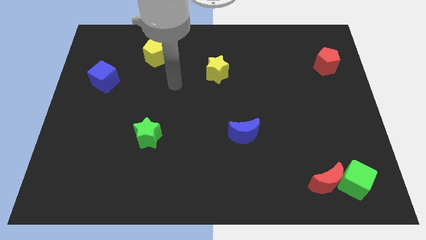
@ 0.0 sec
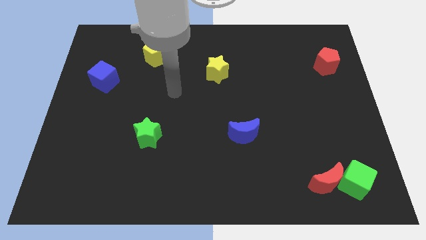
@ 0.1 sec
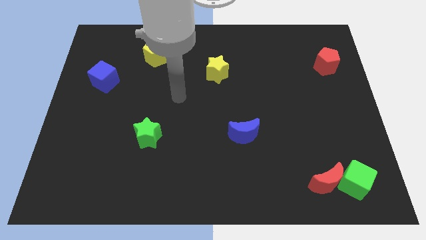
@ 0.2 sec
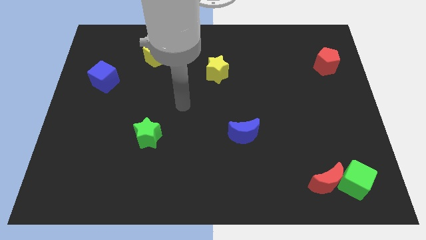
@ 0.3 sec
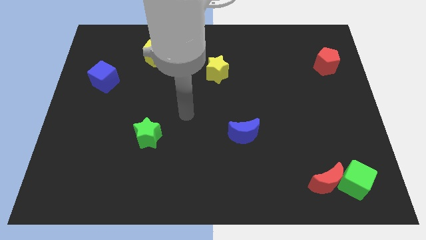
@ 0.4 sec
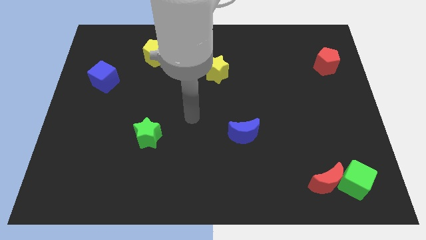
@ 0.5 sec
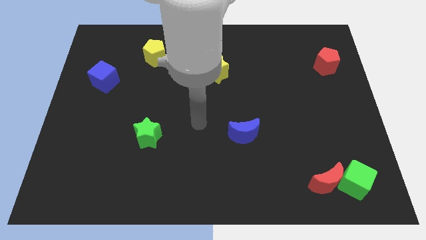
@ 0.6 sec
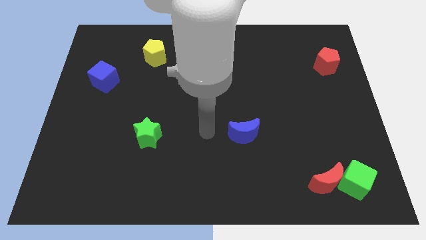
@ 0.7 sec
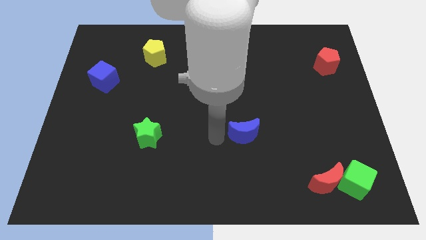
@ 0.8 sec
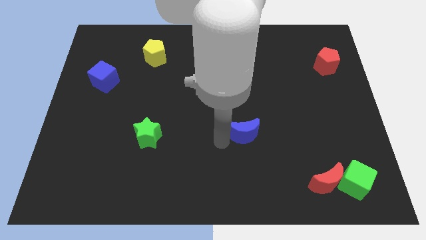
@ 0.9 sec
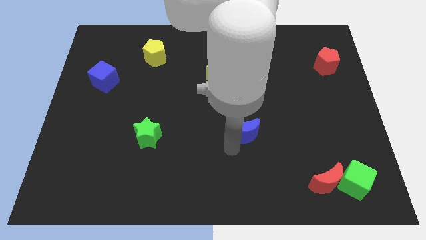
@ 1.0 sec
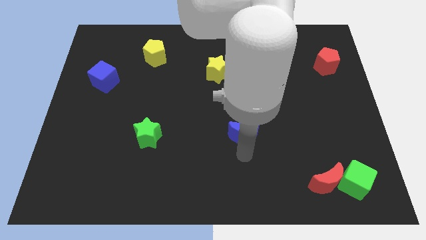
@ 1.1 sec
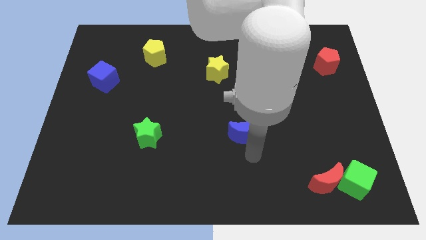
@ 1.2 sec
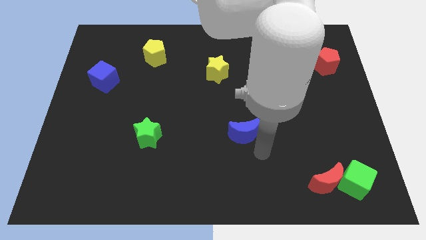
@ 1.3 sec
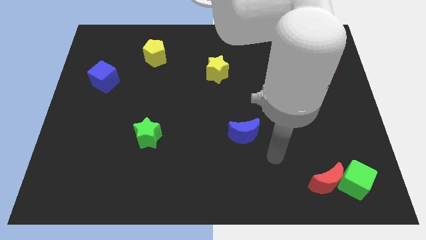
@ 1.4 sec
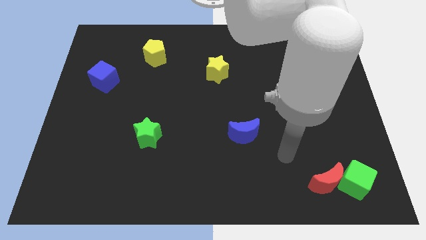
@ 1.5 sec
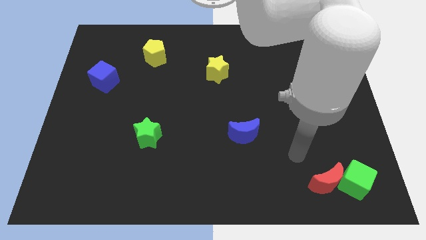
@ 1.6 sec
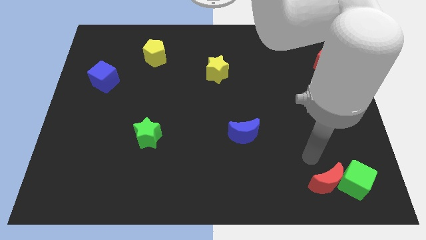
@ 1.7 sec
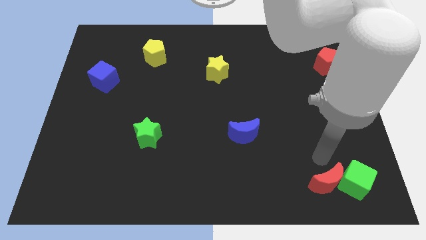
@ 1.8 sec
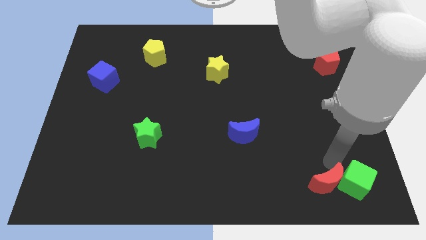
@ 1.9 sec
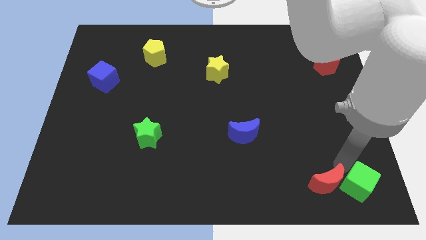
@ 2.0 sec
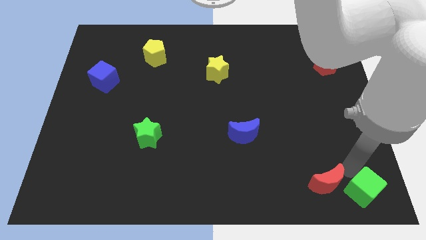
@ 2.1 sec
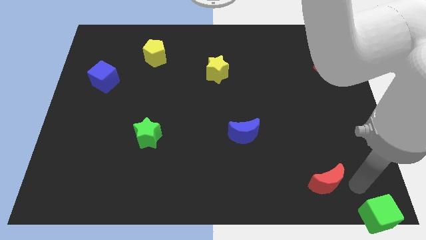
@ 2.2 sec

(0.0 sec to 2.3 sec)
separate the red moon from the green cube

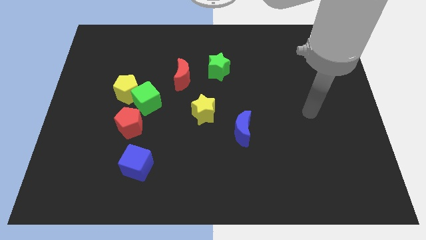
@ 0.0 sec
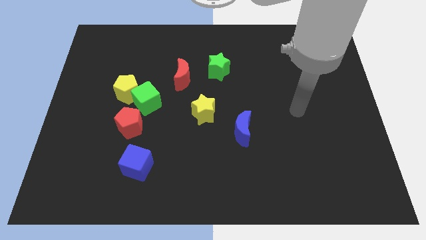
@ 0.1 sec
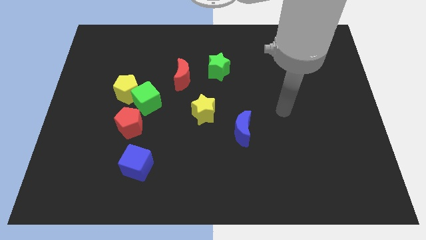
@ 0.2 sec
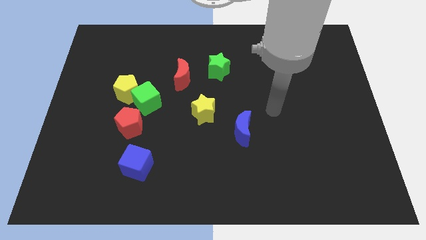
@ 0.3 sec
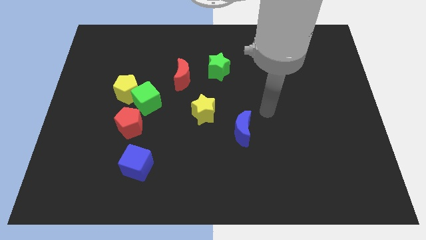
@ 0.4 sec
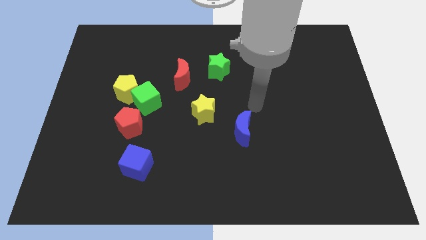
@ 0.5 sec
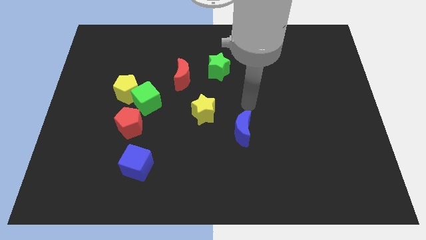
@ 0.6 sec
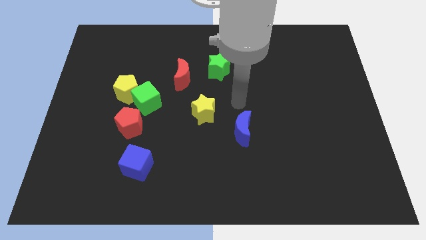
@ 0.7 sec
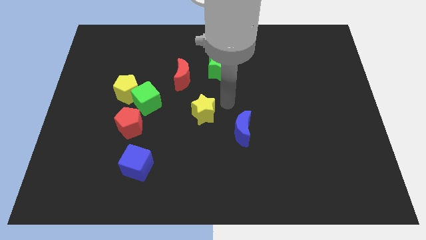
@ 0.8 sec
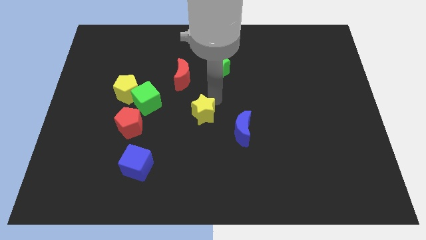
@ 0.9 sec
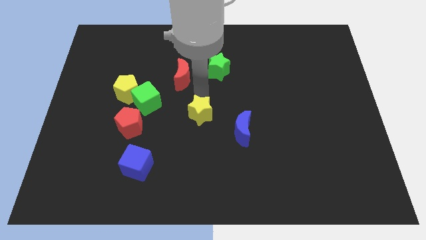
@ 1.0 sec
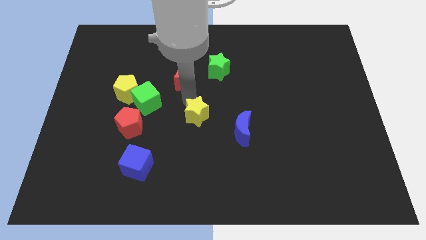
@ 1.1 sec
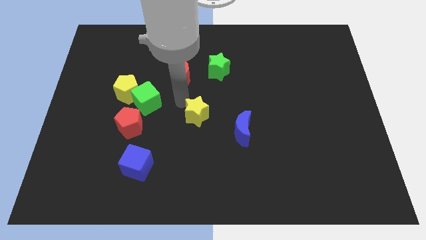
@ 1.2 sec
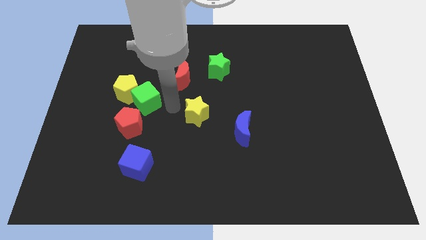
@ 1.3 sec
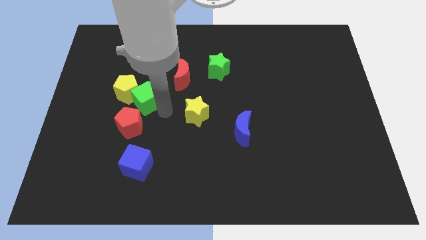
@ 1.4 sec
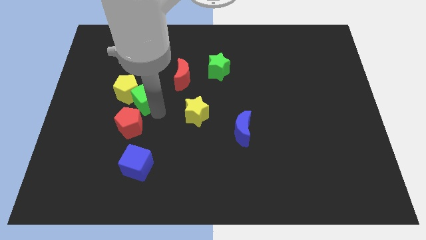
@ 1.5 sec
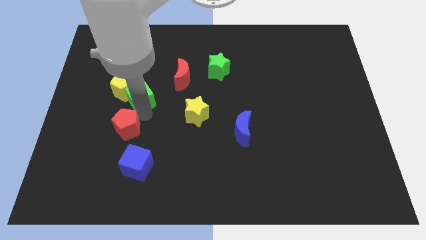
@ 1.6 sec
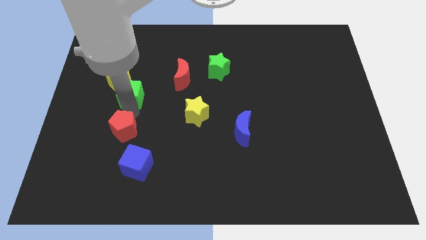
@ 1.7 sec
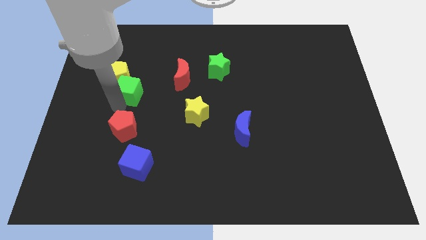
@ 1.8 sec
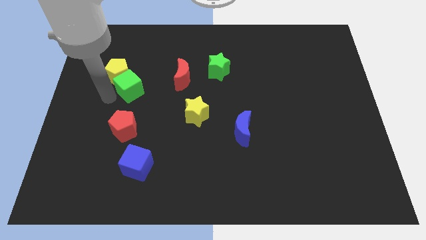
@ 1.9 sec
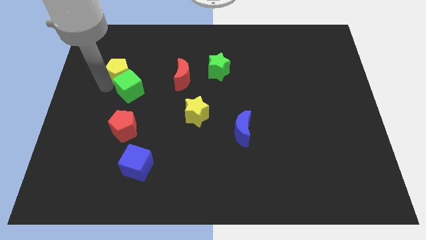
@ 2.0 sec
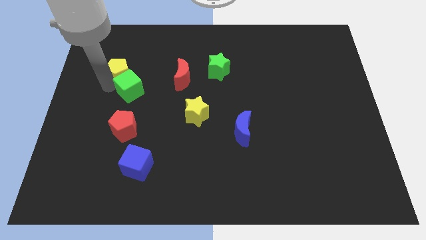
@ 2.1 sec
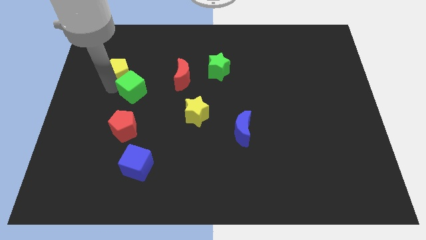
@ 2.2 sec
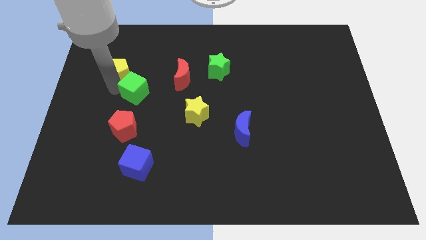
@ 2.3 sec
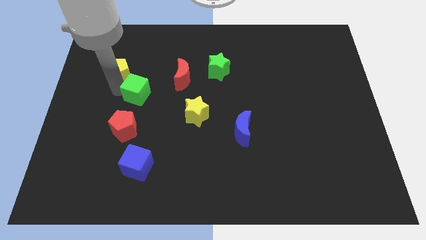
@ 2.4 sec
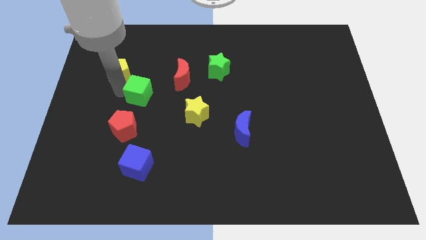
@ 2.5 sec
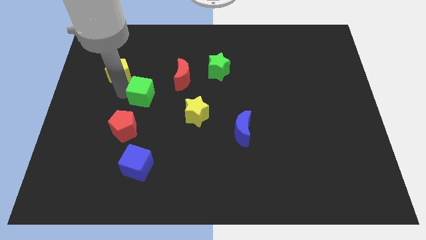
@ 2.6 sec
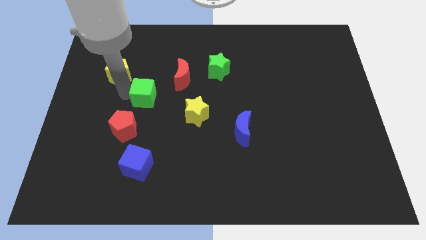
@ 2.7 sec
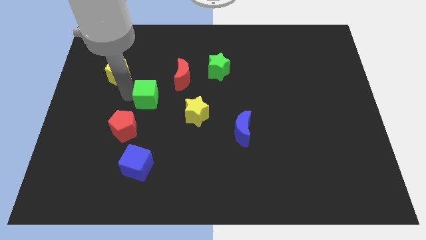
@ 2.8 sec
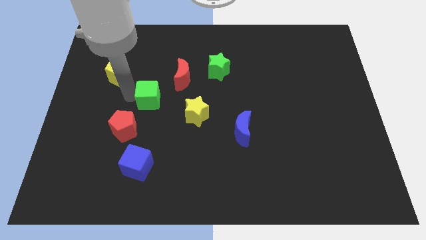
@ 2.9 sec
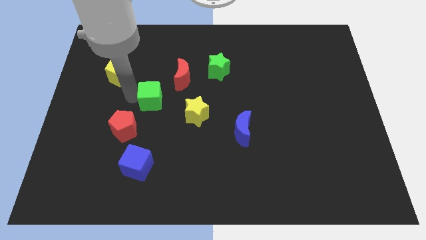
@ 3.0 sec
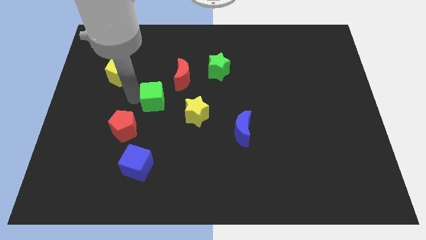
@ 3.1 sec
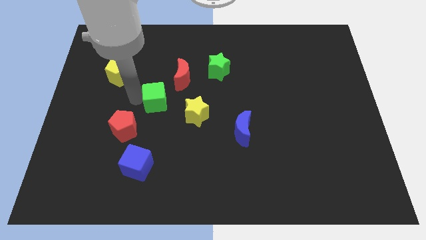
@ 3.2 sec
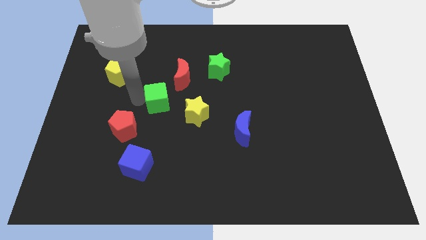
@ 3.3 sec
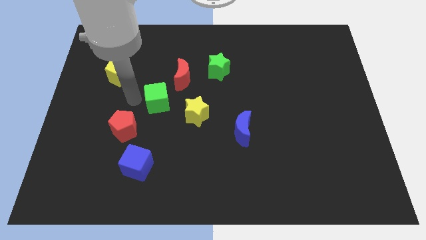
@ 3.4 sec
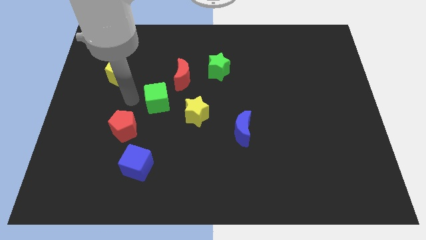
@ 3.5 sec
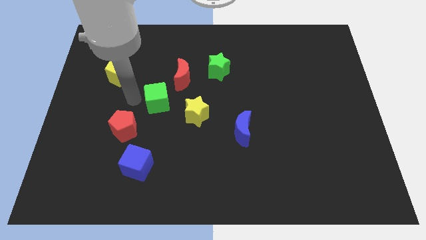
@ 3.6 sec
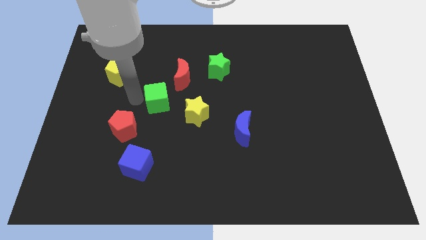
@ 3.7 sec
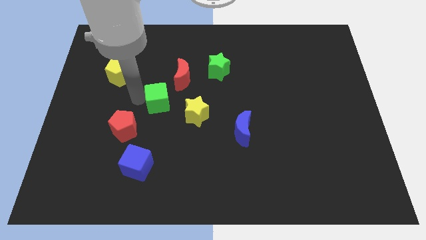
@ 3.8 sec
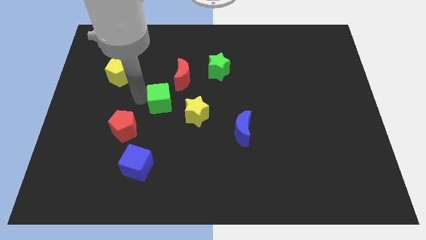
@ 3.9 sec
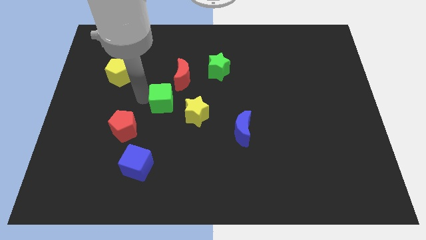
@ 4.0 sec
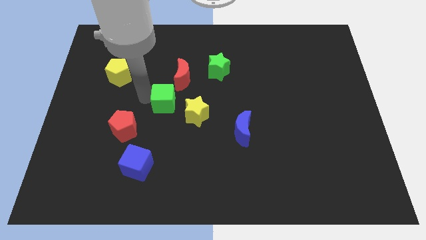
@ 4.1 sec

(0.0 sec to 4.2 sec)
pull the green cube apart from the yellow pentagon and red pentagon

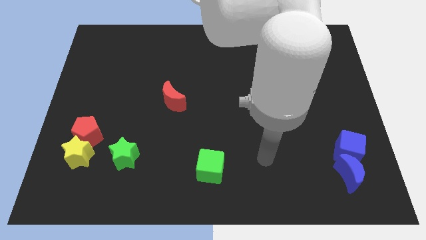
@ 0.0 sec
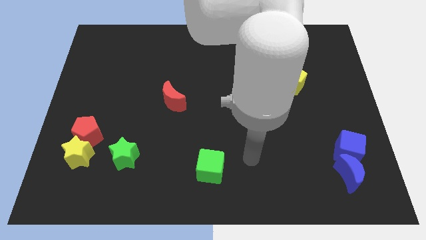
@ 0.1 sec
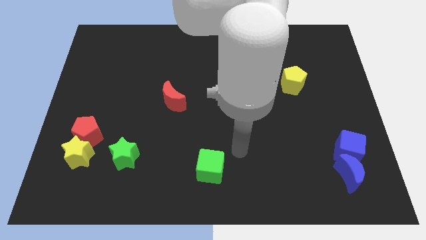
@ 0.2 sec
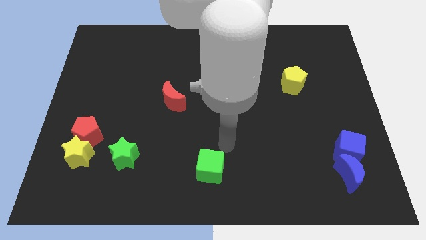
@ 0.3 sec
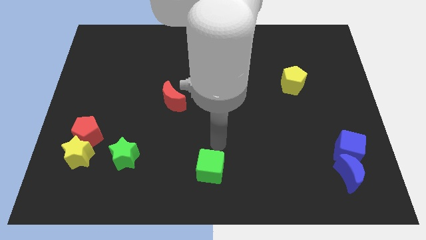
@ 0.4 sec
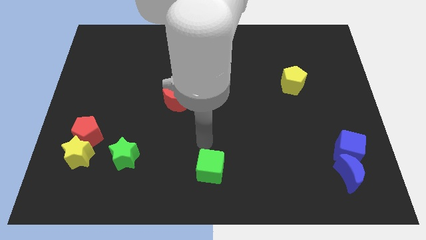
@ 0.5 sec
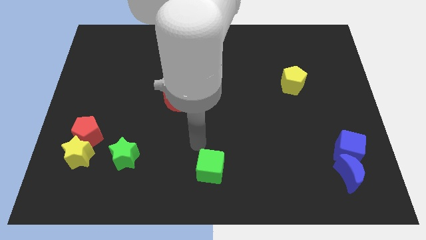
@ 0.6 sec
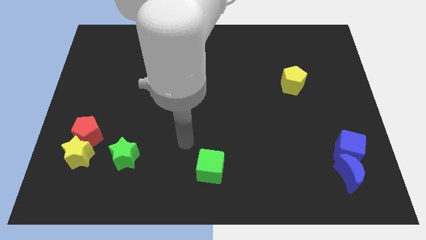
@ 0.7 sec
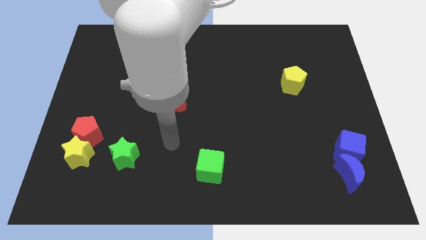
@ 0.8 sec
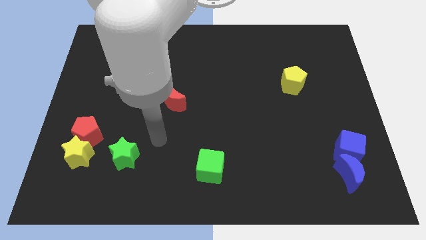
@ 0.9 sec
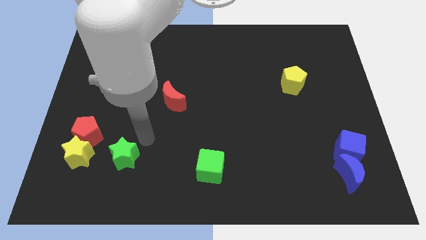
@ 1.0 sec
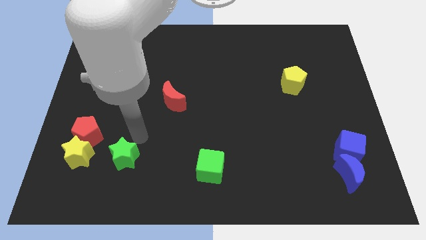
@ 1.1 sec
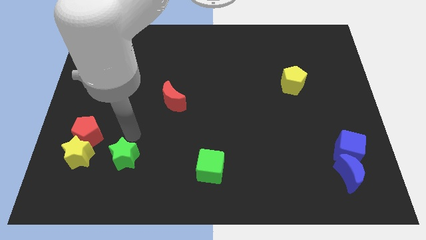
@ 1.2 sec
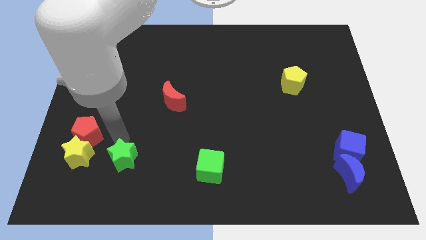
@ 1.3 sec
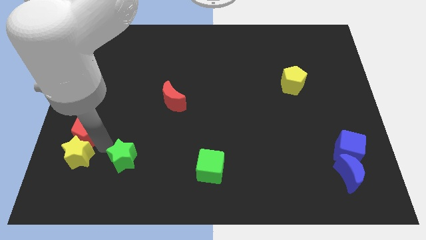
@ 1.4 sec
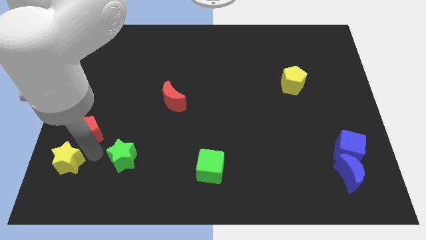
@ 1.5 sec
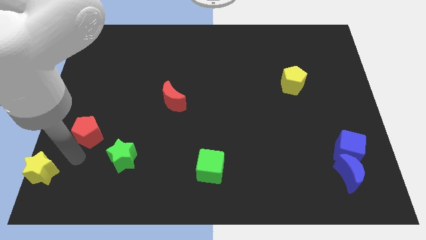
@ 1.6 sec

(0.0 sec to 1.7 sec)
pull the red pentagon apart from the yellow star

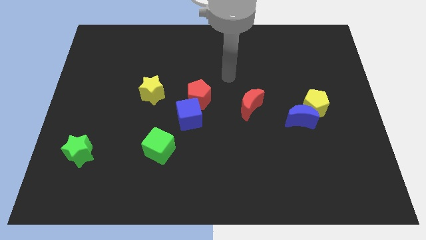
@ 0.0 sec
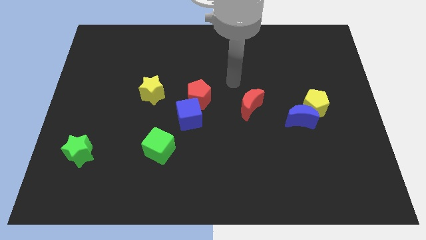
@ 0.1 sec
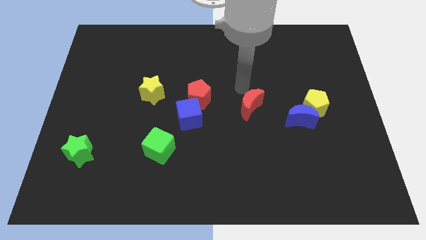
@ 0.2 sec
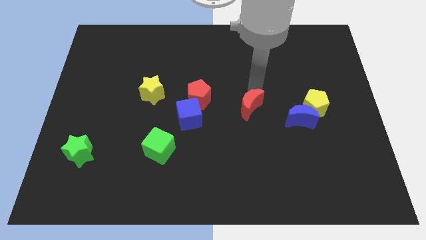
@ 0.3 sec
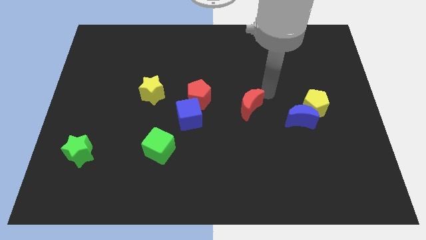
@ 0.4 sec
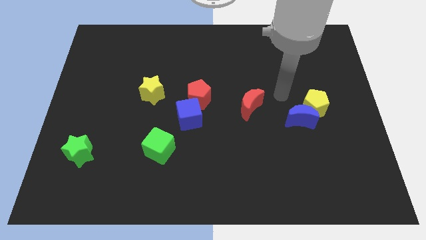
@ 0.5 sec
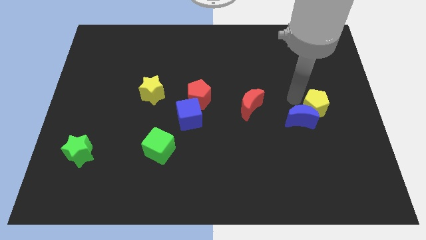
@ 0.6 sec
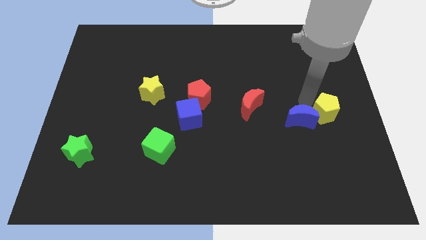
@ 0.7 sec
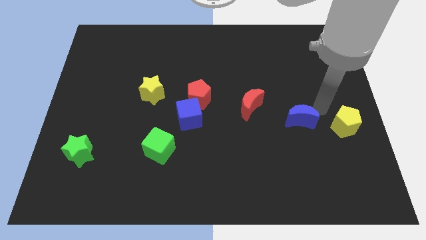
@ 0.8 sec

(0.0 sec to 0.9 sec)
separate the blue moon from the yellow pentagon
